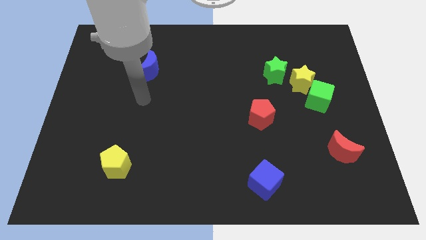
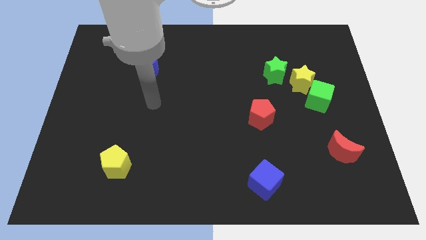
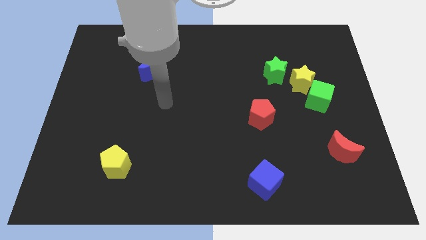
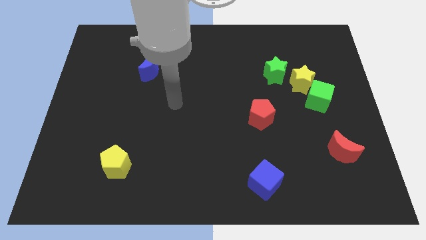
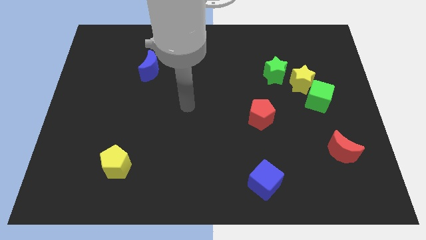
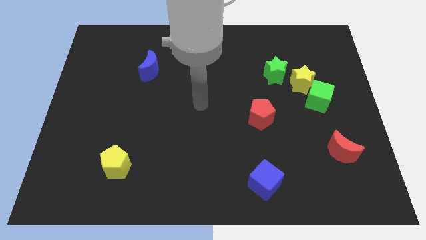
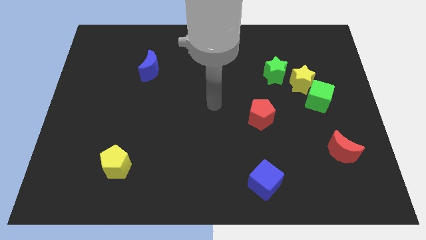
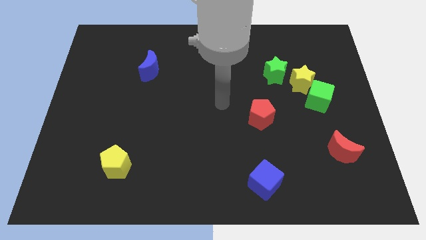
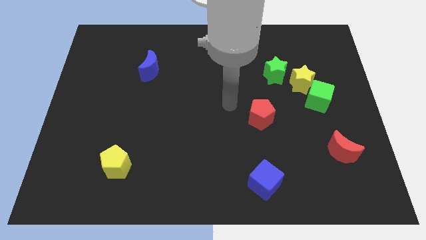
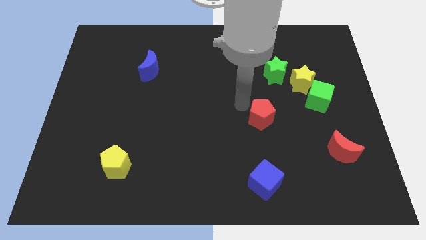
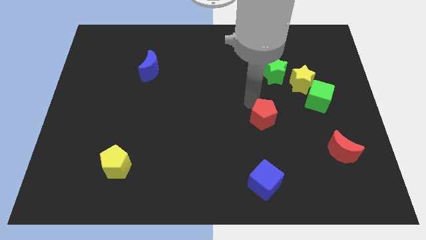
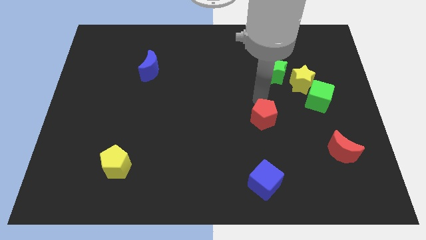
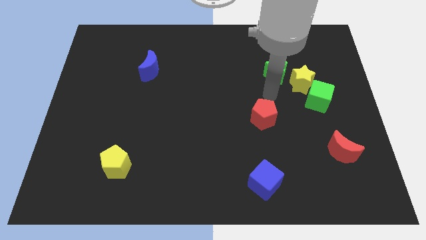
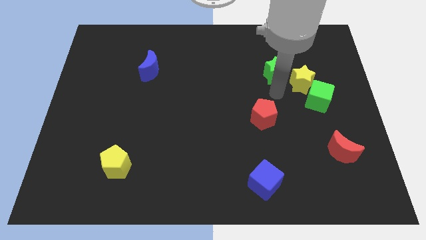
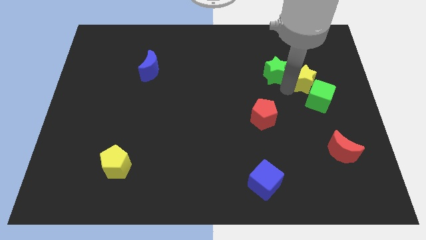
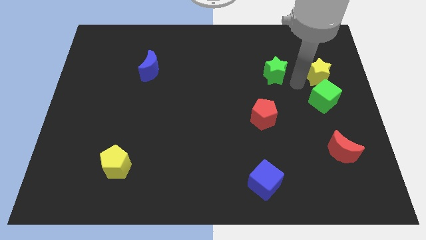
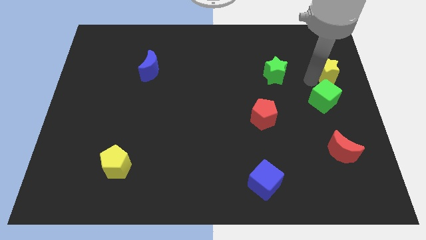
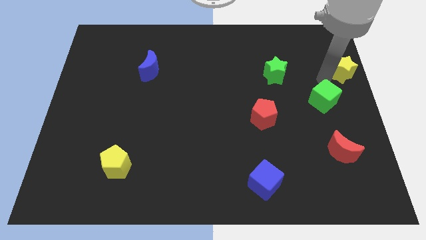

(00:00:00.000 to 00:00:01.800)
pull the green cube apart from the yellow star

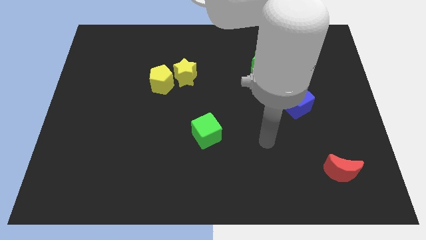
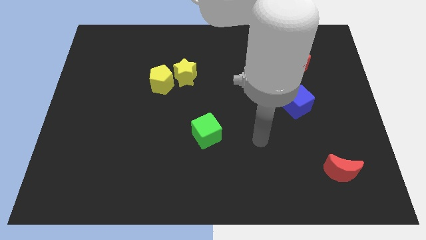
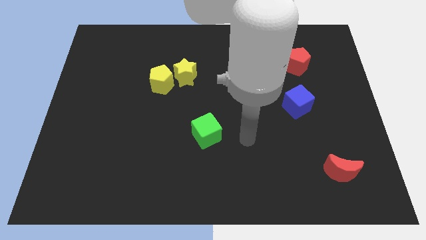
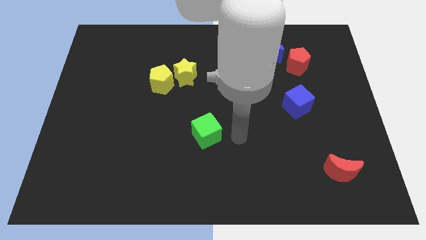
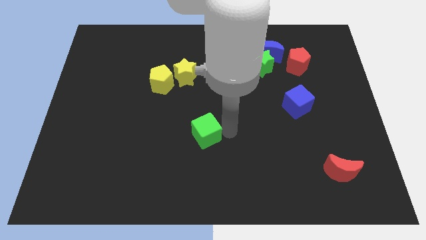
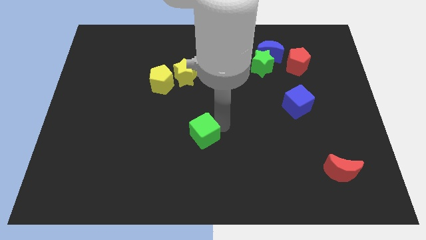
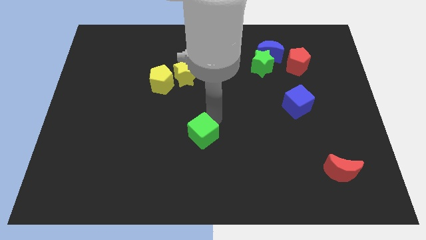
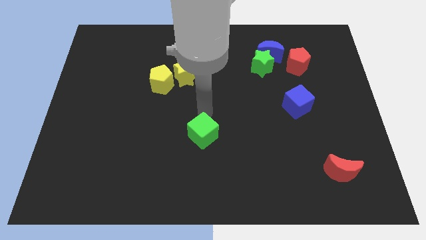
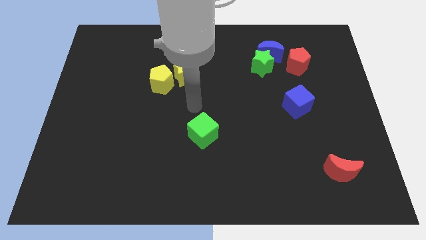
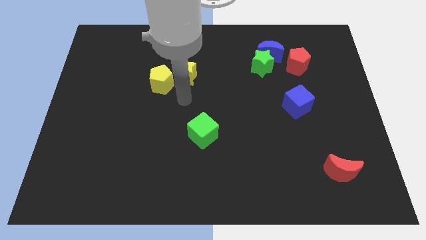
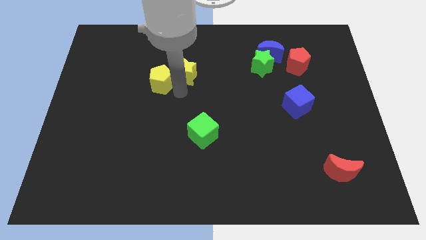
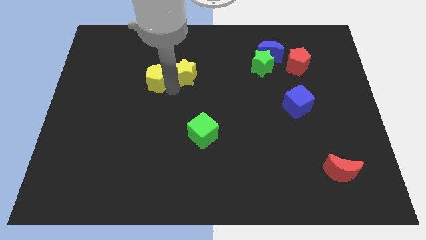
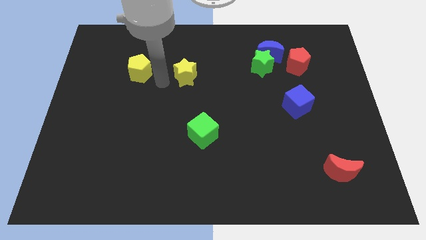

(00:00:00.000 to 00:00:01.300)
separate the yellow star from the yellow pentagon

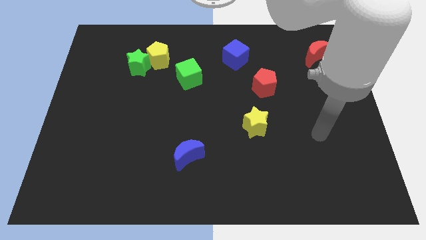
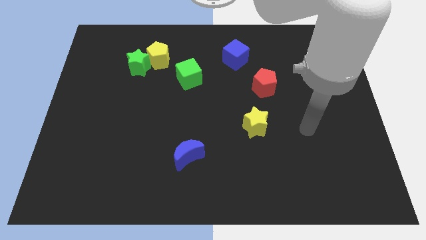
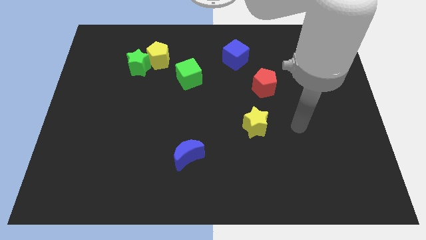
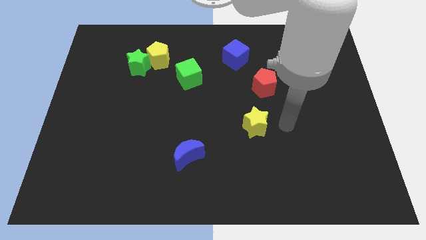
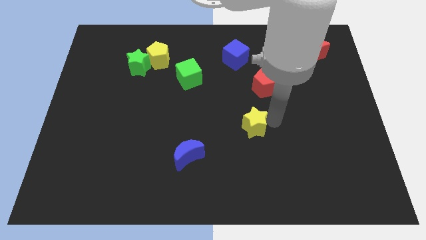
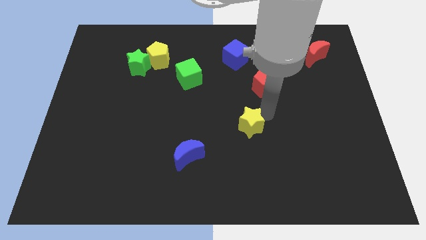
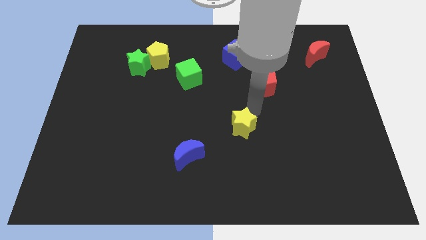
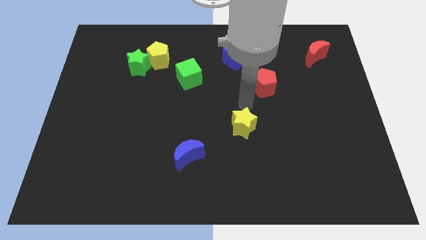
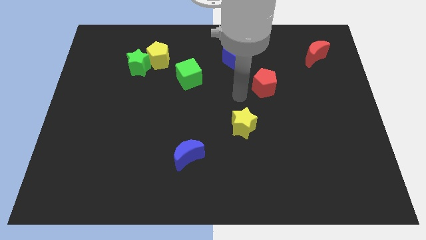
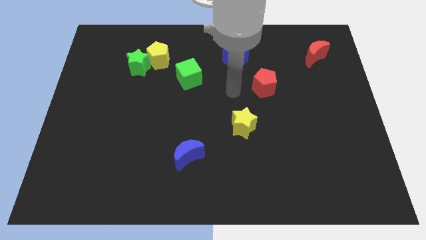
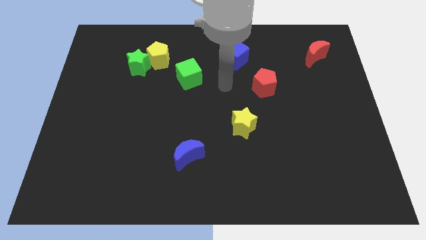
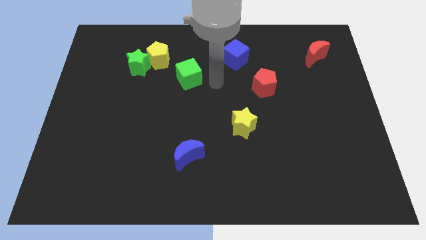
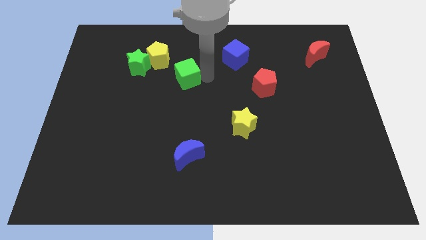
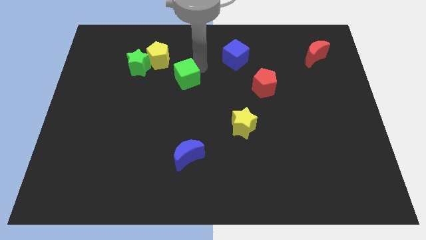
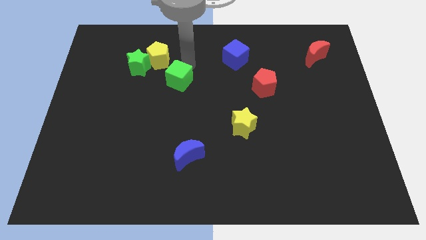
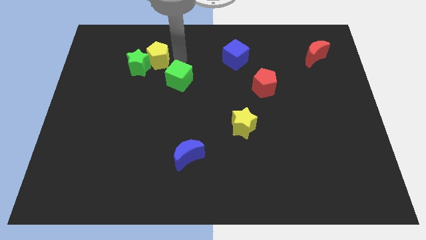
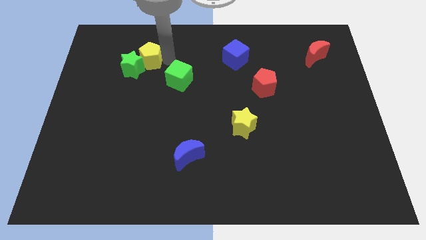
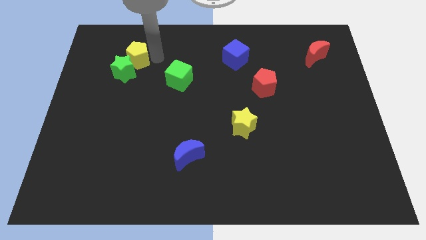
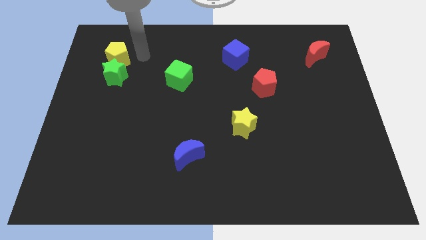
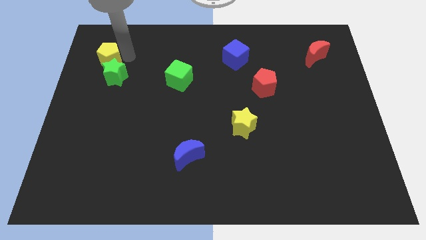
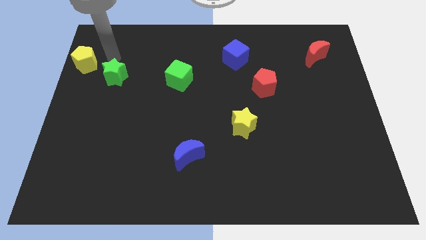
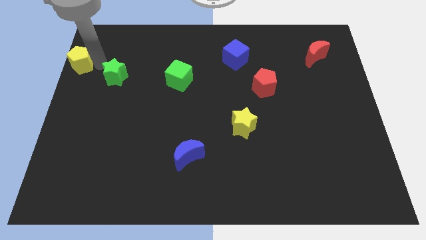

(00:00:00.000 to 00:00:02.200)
move the green star away from the yellow pentagon

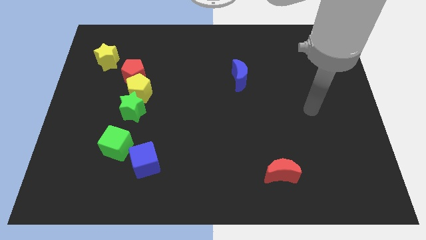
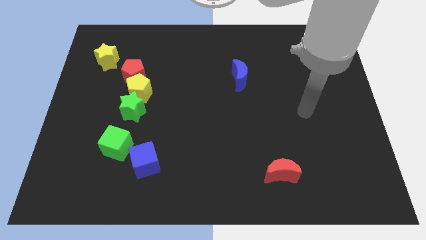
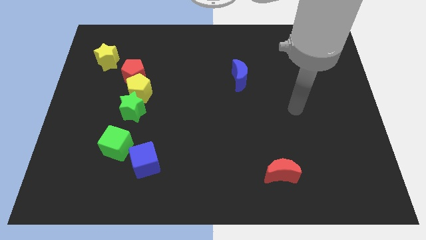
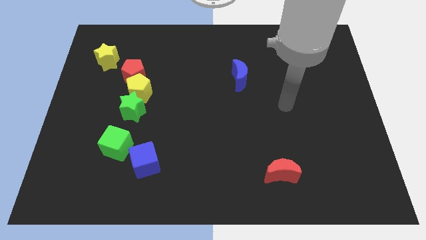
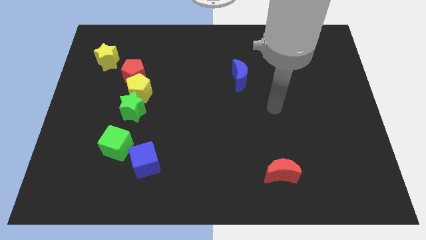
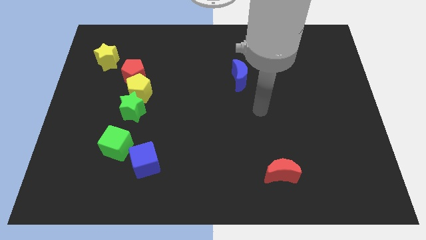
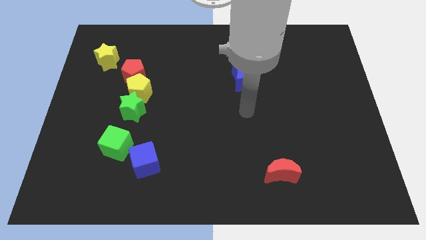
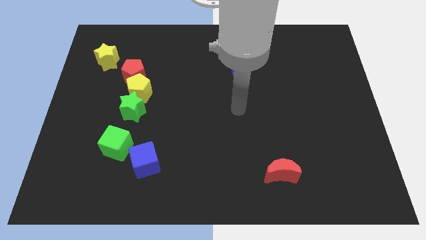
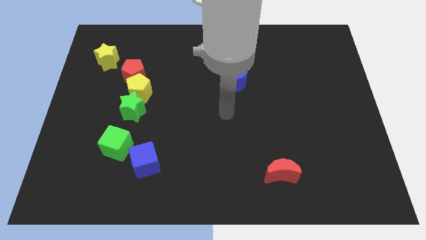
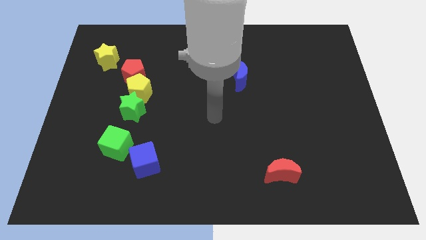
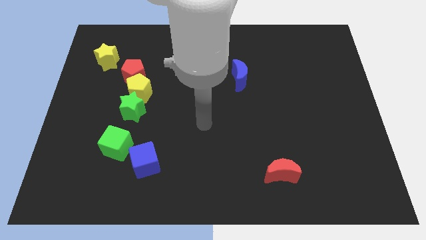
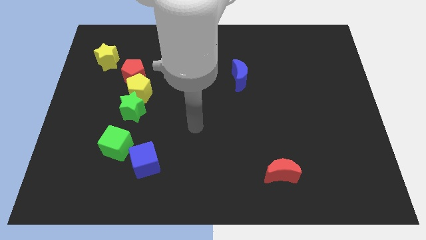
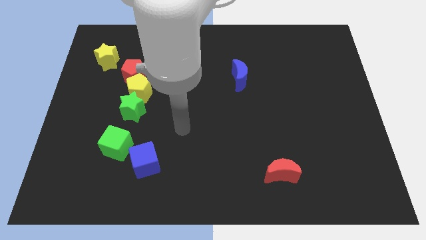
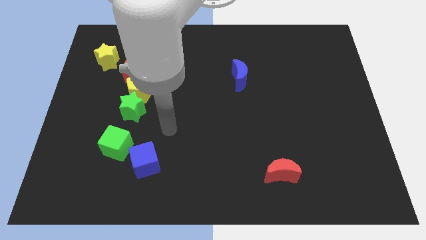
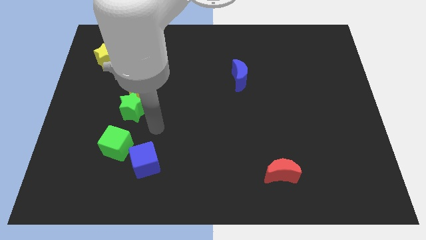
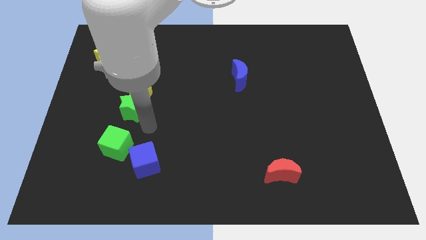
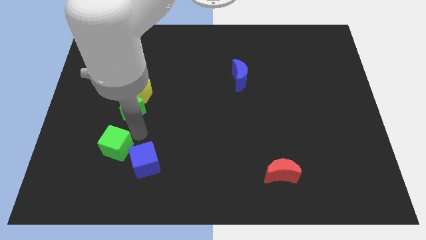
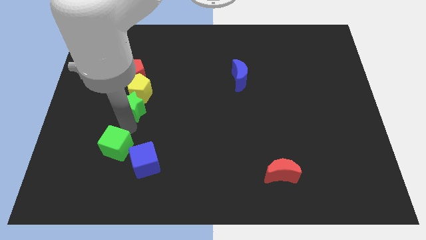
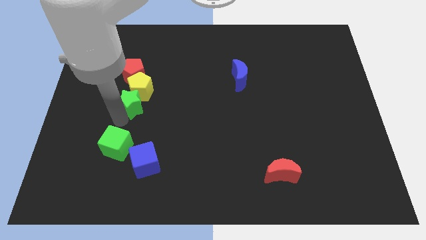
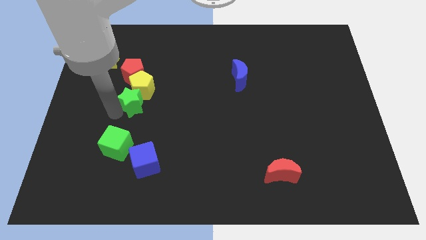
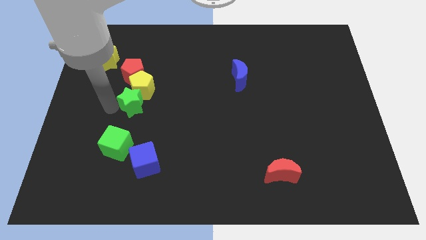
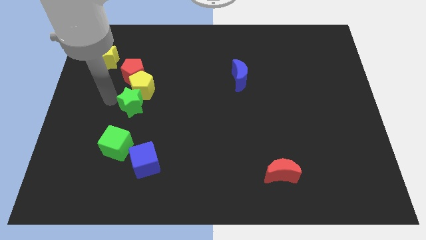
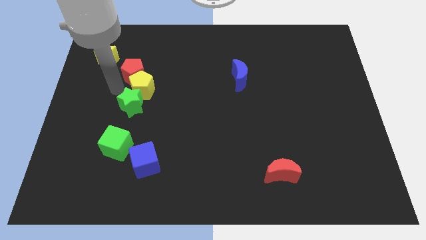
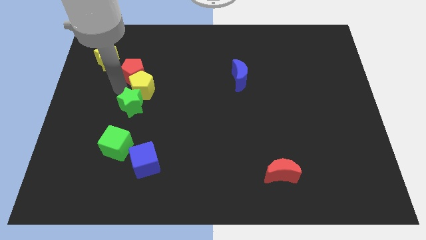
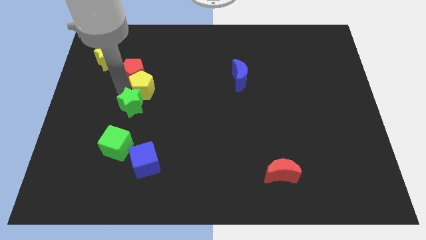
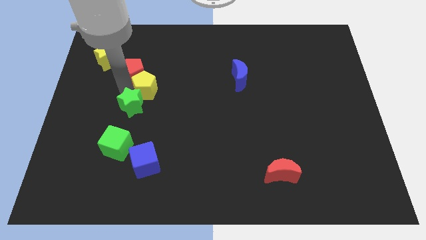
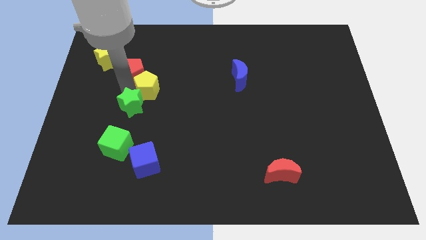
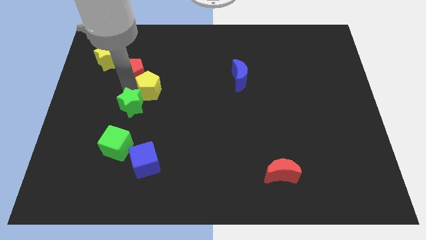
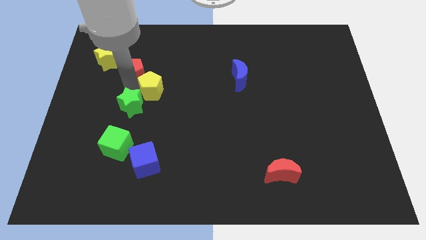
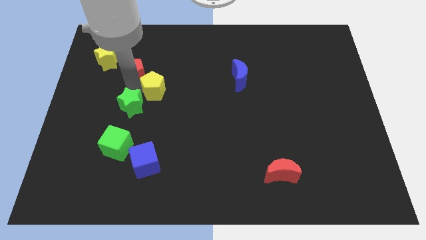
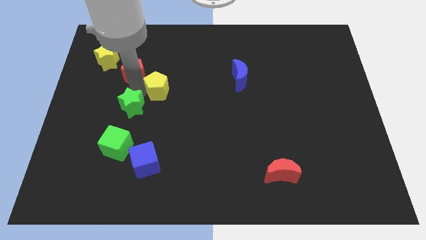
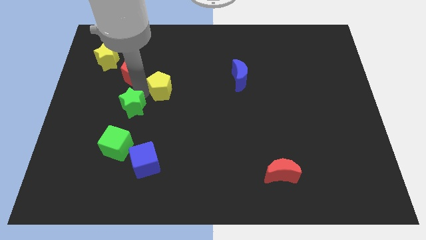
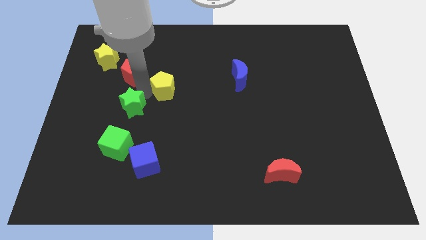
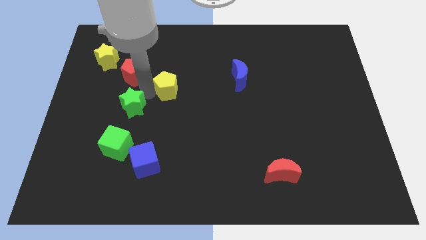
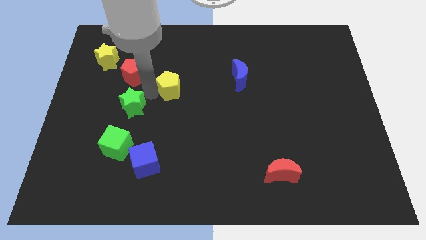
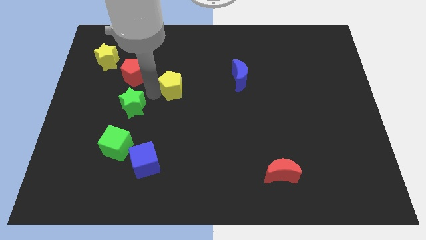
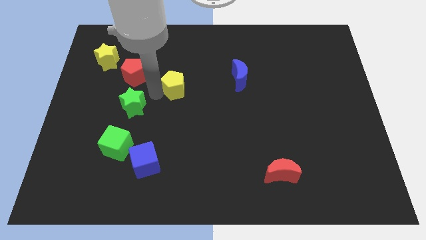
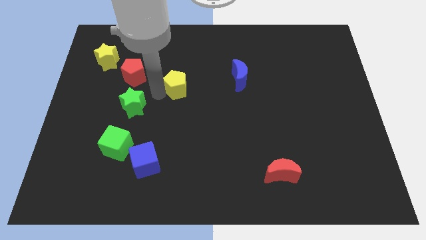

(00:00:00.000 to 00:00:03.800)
move the yellow pentagon away from the red pentagon and green star

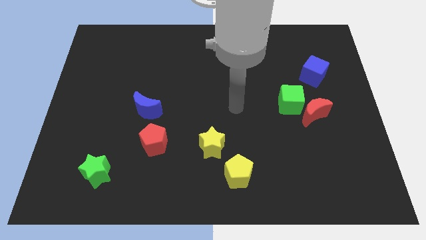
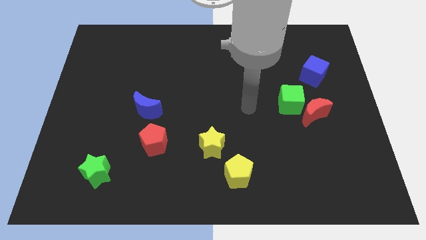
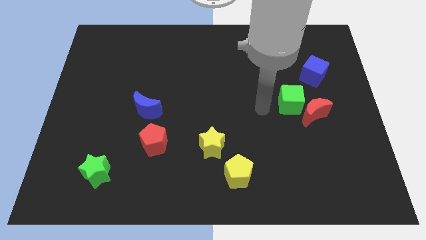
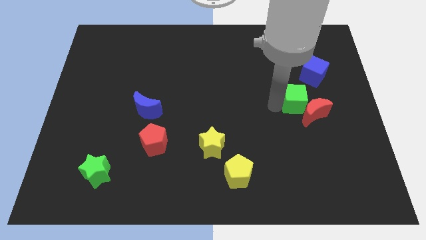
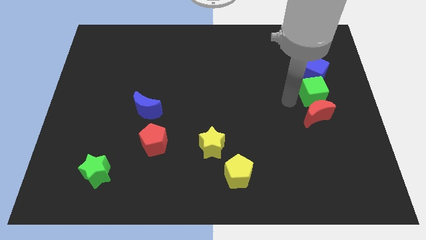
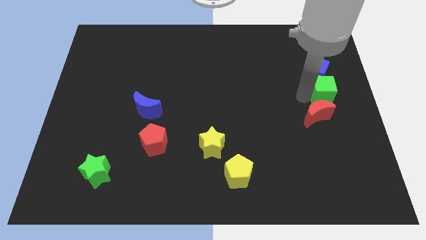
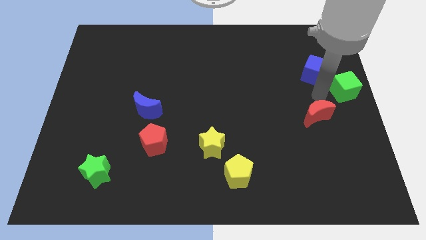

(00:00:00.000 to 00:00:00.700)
move the red moon away from the green cube
